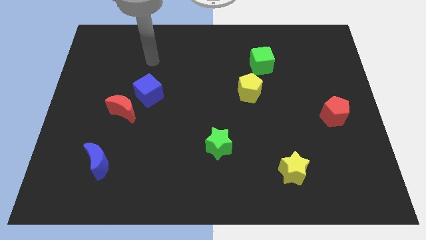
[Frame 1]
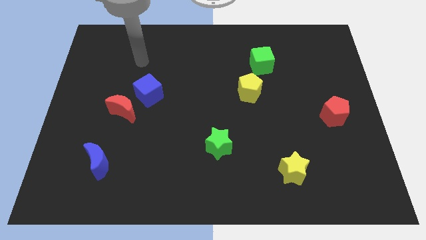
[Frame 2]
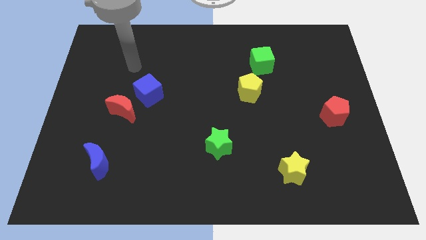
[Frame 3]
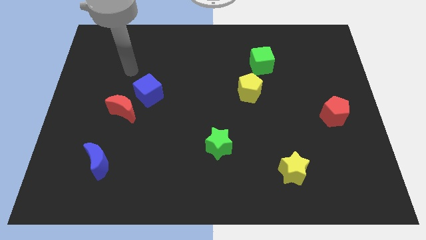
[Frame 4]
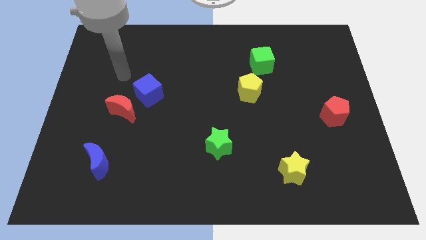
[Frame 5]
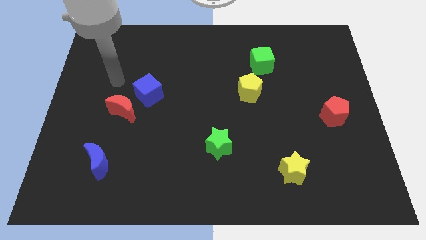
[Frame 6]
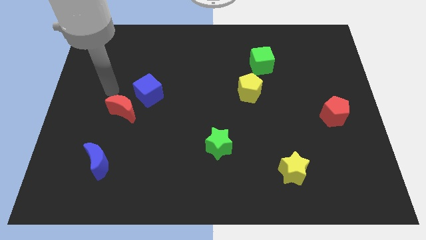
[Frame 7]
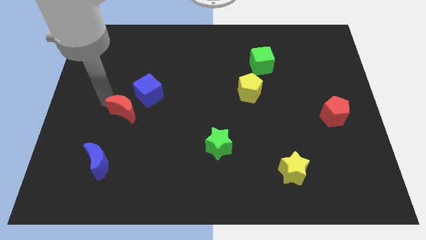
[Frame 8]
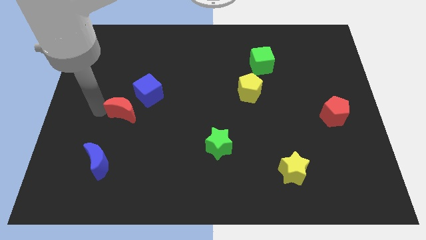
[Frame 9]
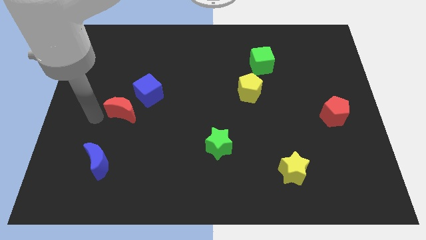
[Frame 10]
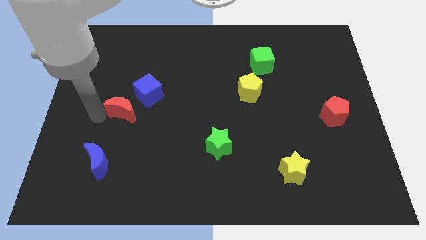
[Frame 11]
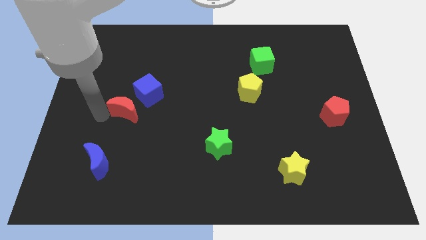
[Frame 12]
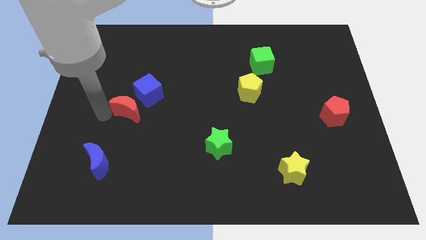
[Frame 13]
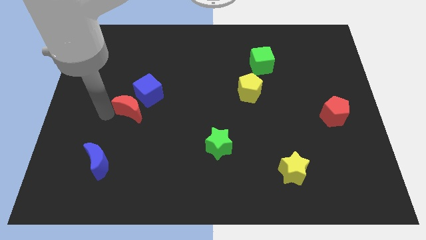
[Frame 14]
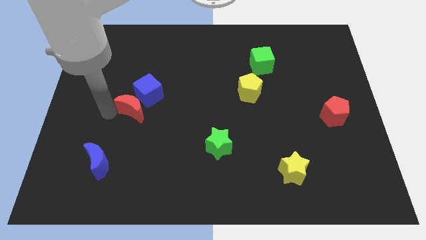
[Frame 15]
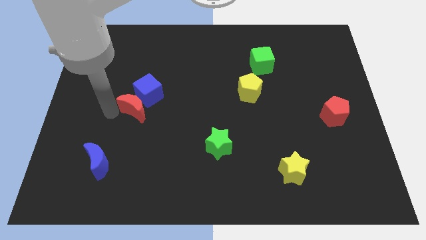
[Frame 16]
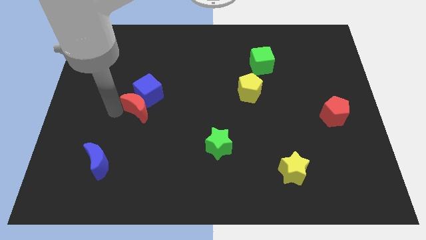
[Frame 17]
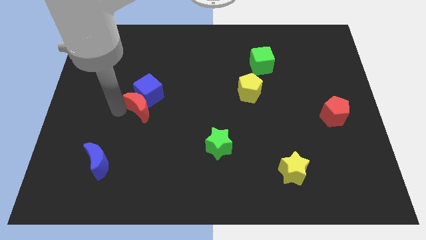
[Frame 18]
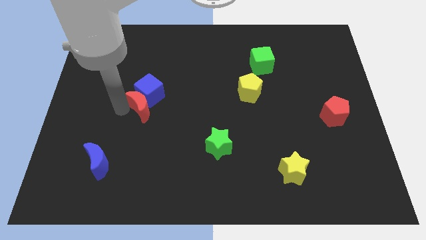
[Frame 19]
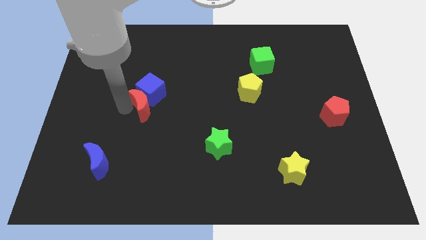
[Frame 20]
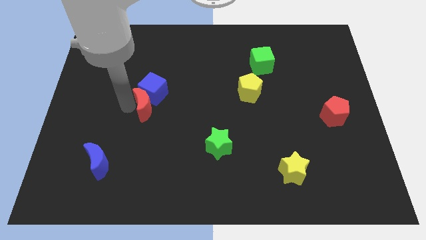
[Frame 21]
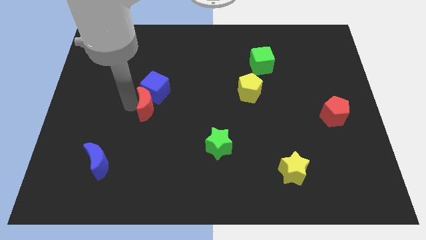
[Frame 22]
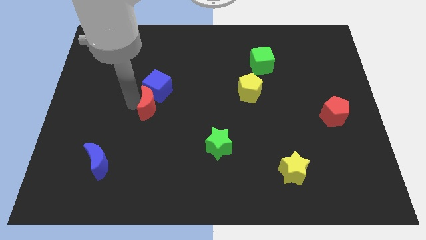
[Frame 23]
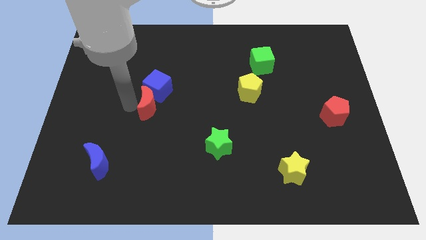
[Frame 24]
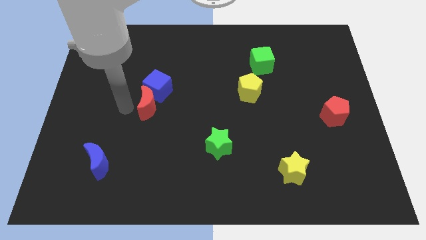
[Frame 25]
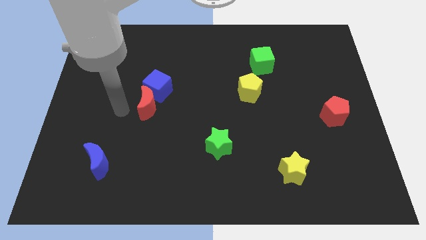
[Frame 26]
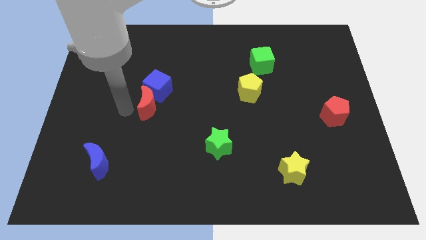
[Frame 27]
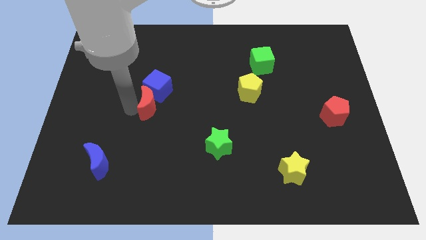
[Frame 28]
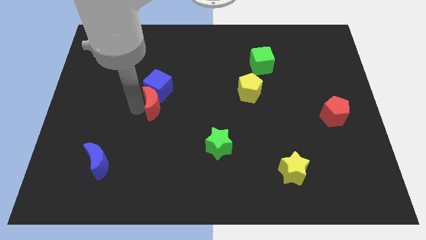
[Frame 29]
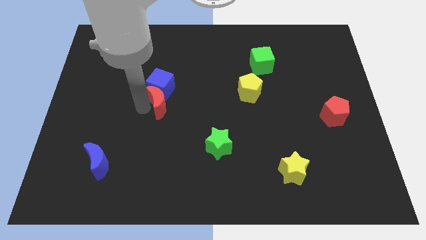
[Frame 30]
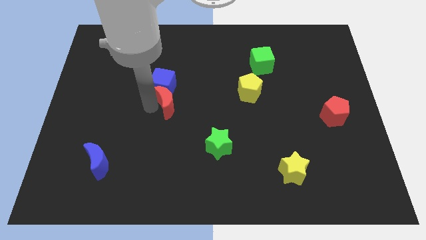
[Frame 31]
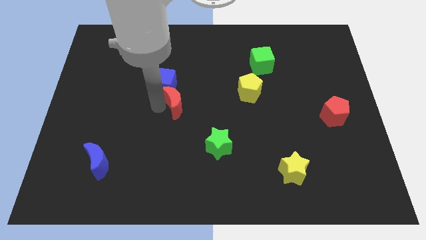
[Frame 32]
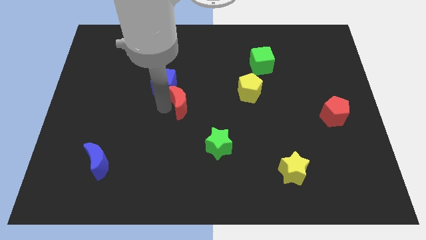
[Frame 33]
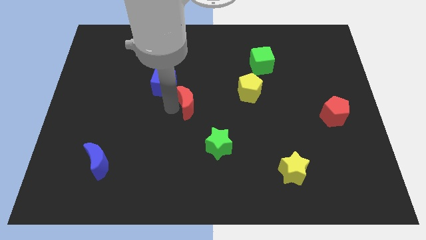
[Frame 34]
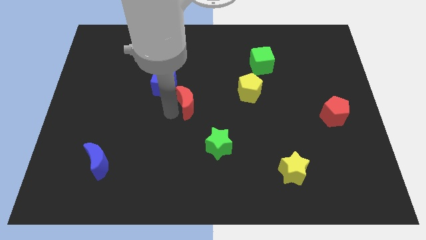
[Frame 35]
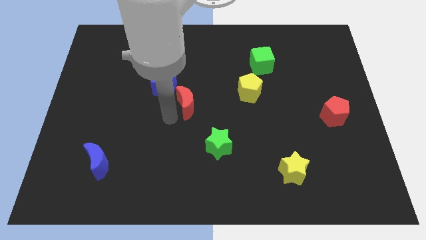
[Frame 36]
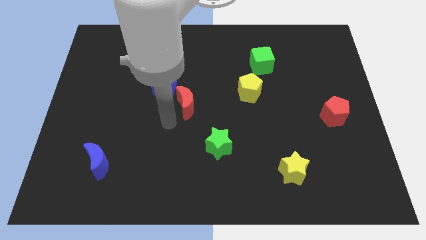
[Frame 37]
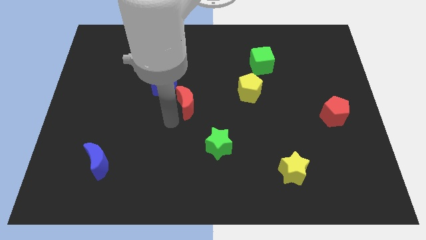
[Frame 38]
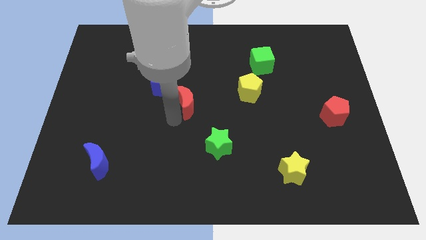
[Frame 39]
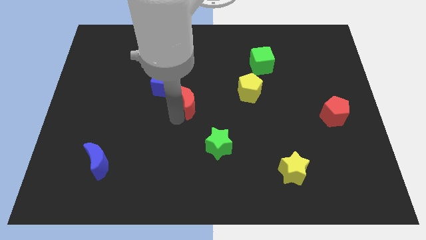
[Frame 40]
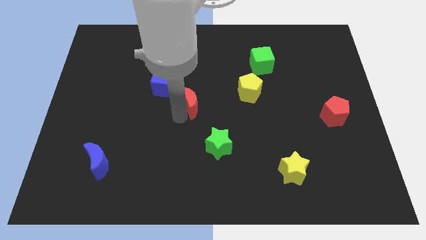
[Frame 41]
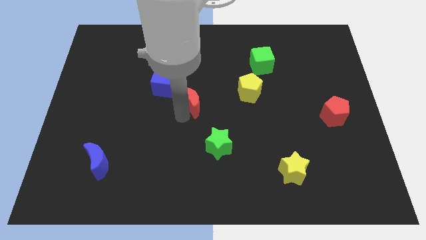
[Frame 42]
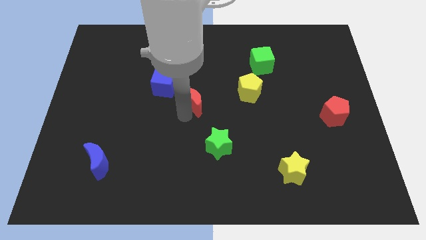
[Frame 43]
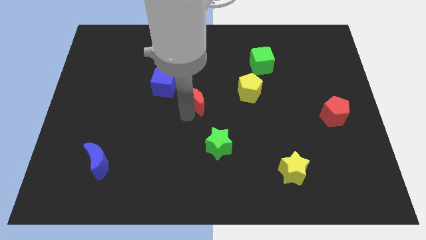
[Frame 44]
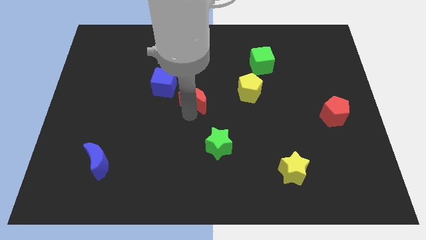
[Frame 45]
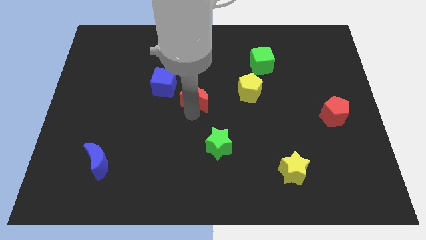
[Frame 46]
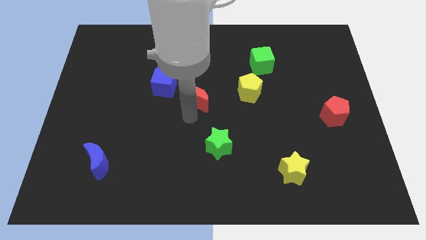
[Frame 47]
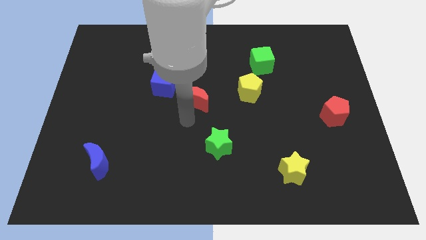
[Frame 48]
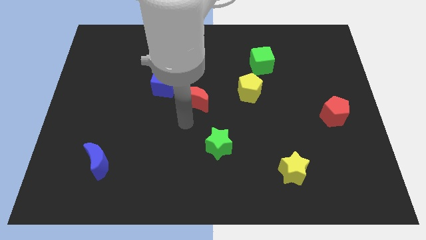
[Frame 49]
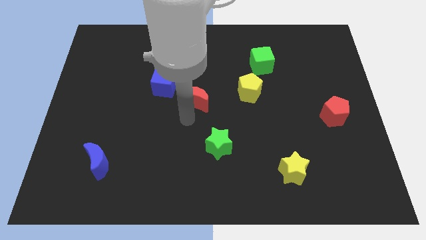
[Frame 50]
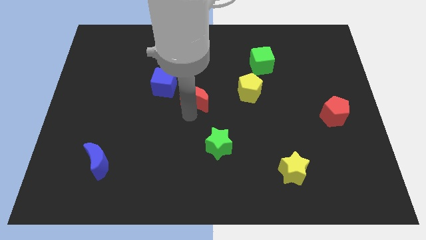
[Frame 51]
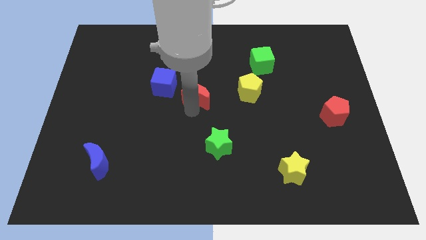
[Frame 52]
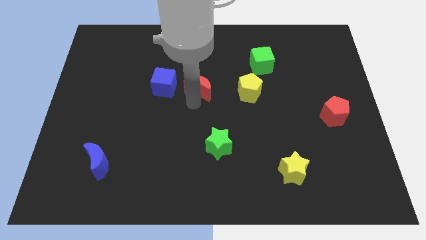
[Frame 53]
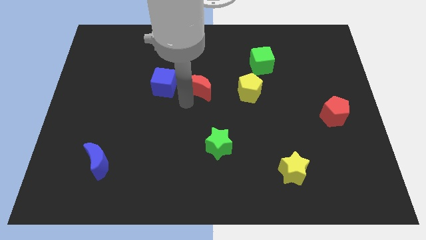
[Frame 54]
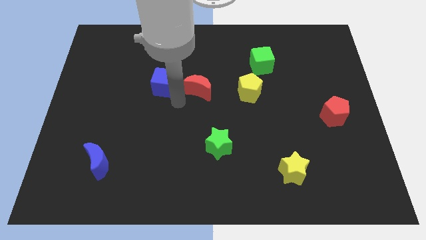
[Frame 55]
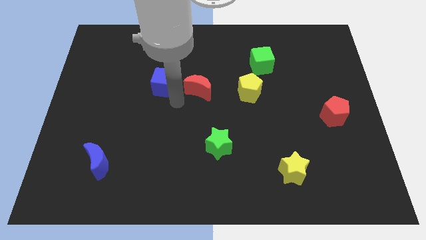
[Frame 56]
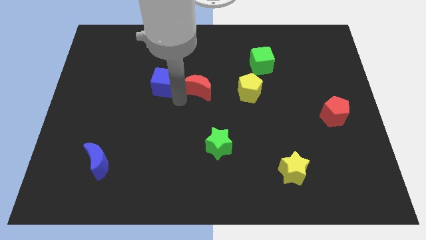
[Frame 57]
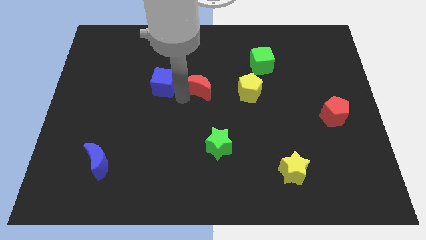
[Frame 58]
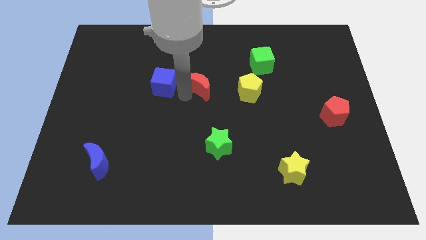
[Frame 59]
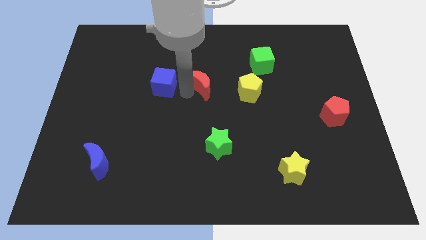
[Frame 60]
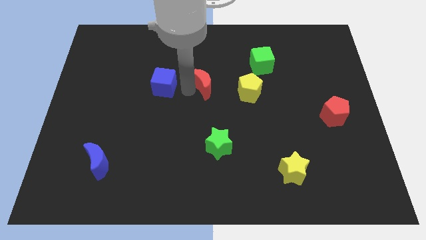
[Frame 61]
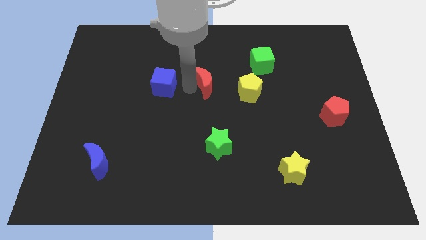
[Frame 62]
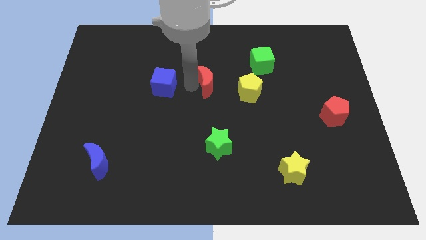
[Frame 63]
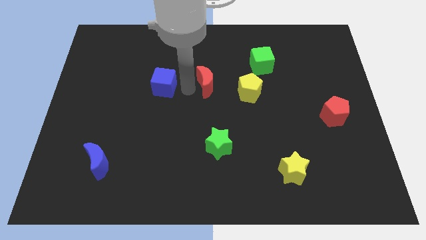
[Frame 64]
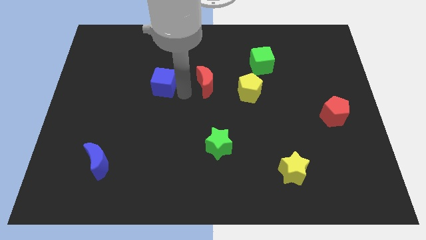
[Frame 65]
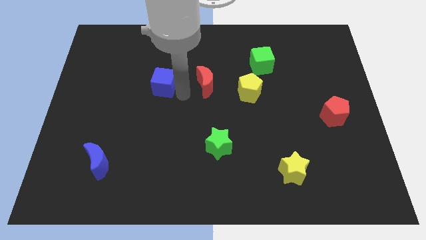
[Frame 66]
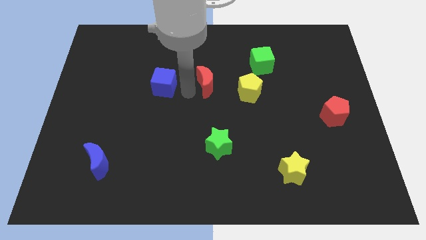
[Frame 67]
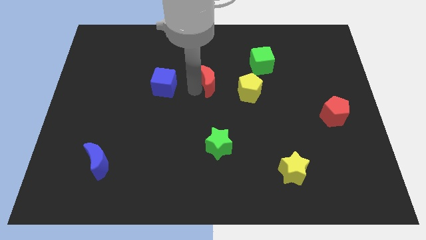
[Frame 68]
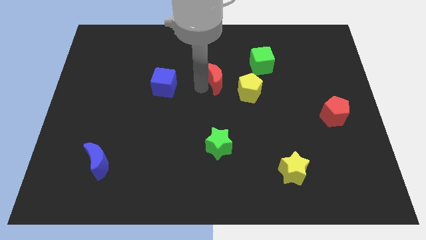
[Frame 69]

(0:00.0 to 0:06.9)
slide the red moon to the top left of the yellow pentagon

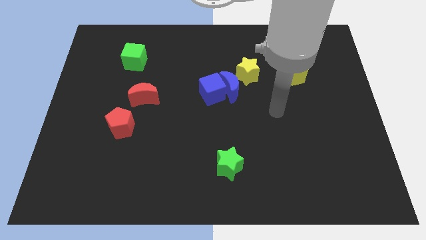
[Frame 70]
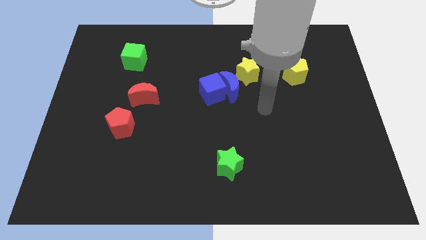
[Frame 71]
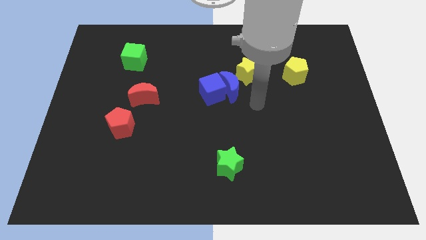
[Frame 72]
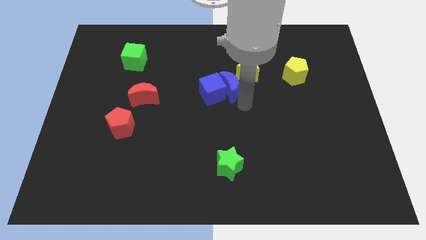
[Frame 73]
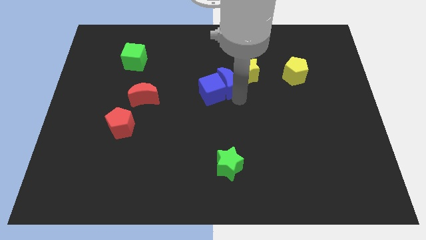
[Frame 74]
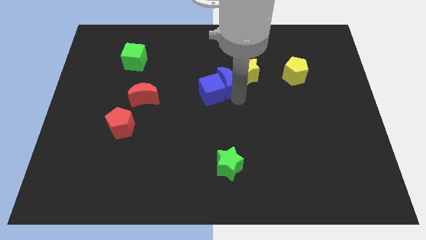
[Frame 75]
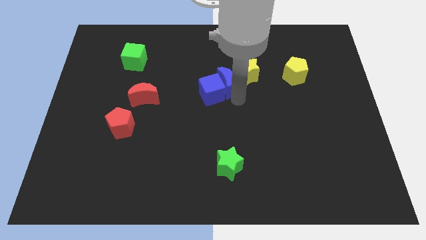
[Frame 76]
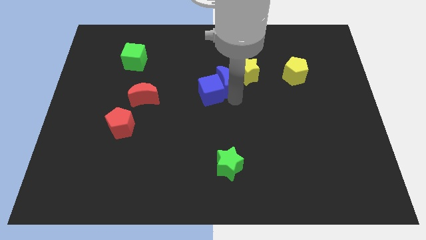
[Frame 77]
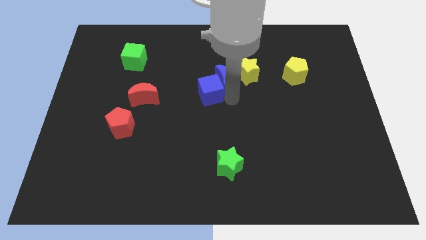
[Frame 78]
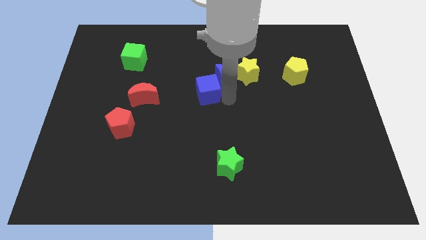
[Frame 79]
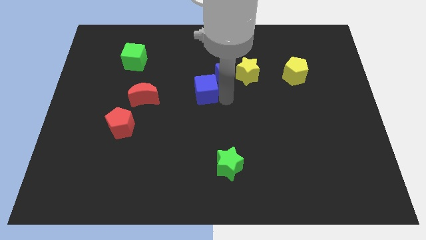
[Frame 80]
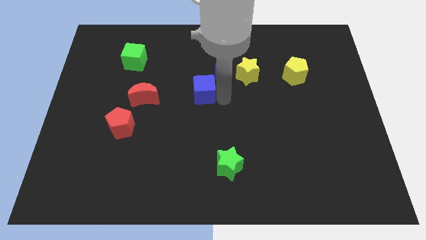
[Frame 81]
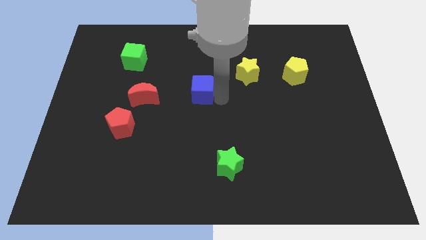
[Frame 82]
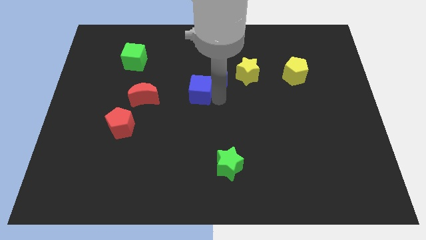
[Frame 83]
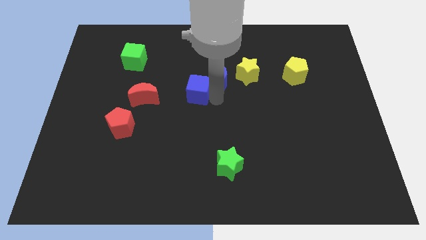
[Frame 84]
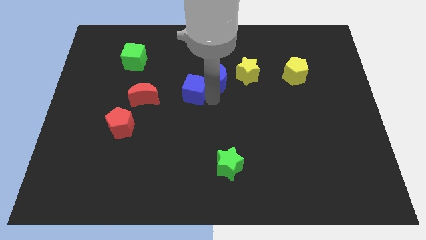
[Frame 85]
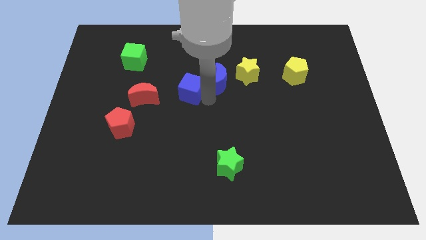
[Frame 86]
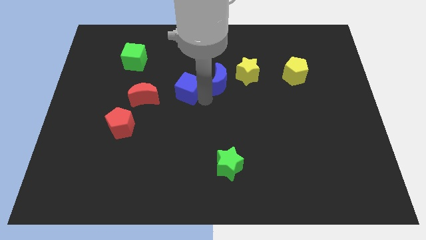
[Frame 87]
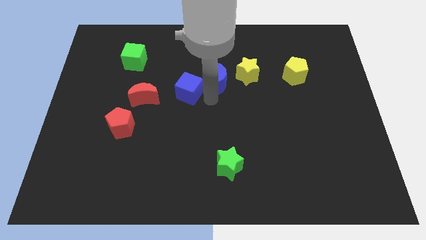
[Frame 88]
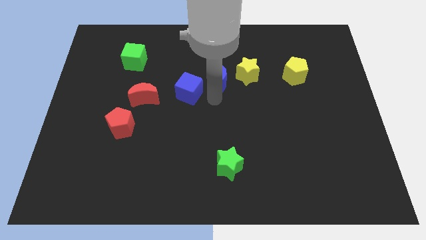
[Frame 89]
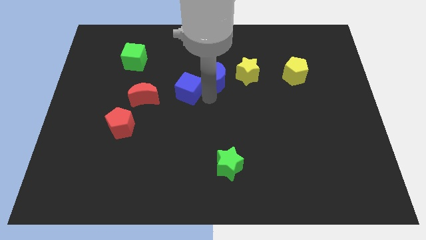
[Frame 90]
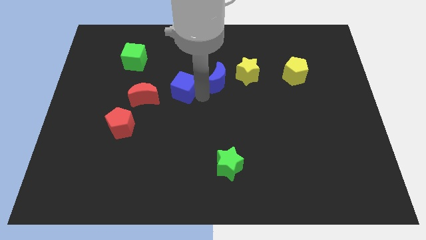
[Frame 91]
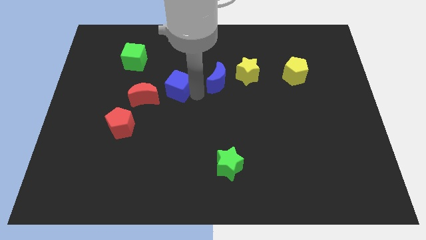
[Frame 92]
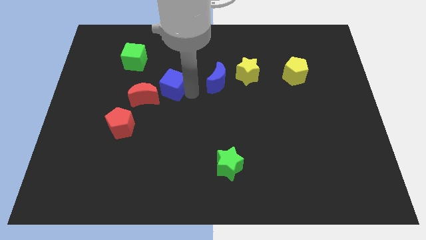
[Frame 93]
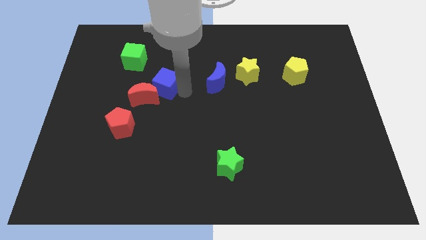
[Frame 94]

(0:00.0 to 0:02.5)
move the blue cube diagonally down and to the right of the green cube
